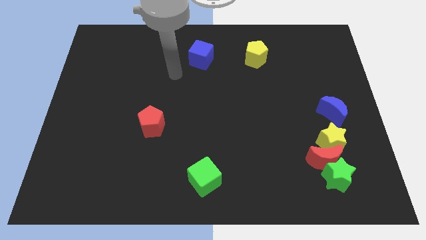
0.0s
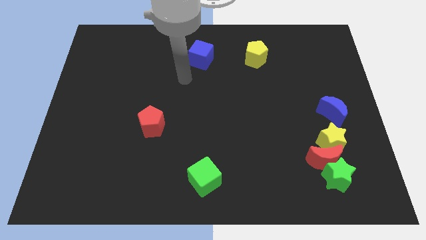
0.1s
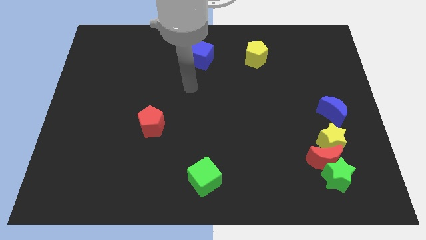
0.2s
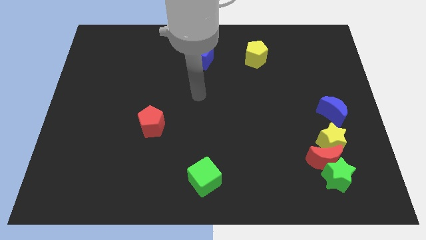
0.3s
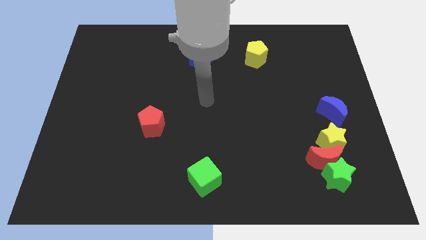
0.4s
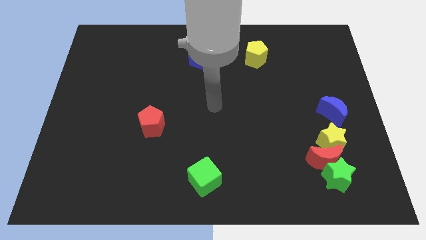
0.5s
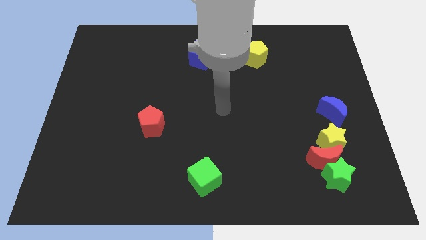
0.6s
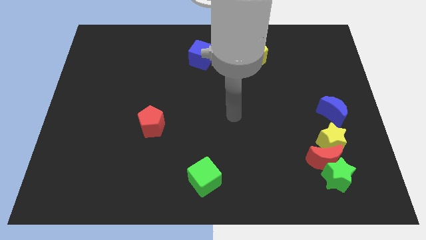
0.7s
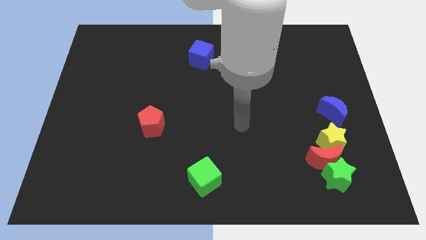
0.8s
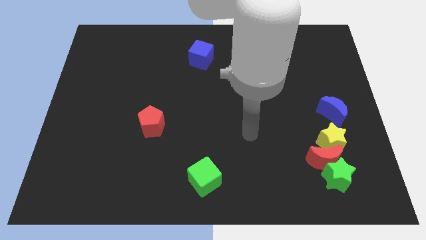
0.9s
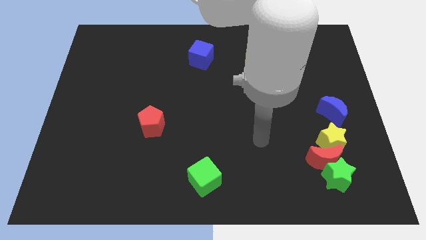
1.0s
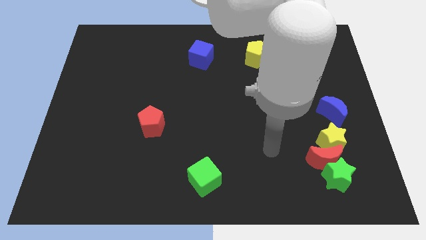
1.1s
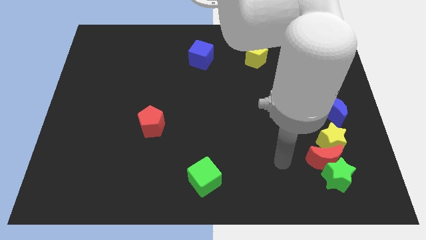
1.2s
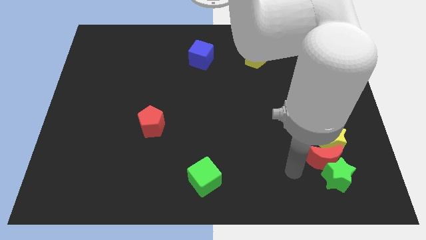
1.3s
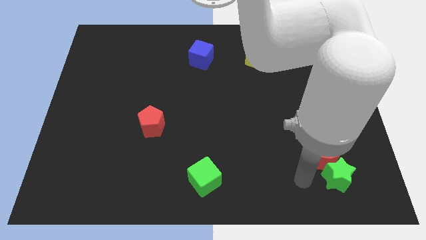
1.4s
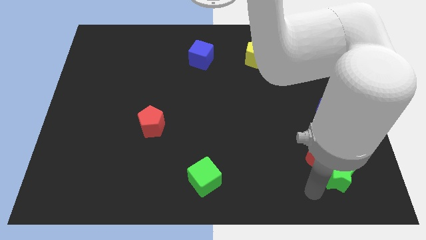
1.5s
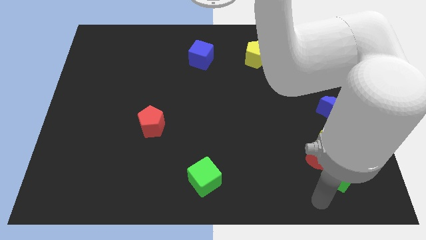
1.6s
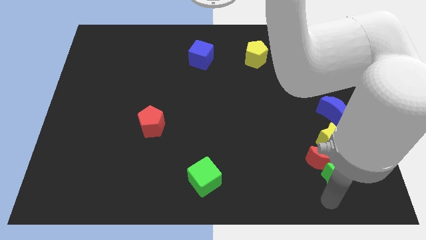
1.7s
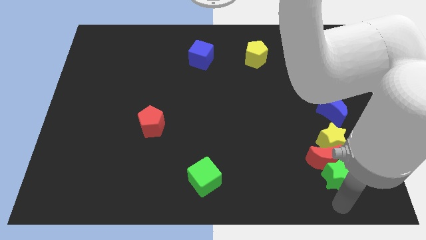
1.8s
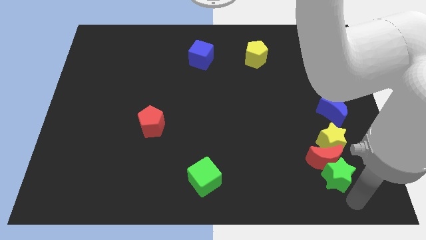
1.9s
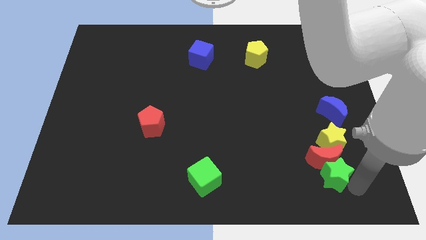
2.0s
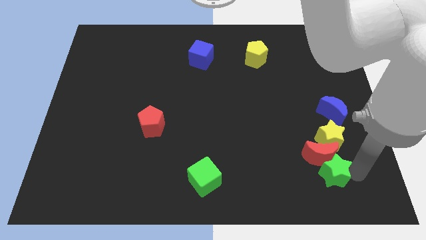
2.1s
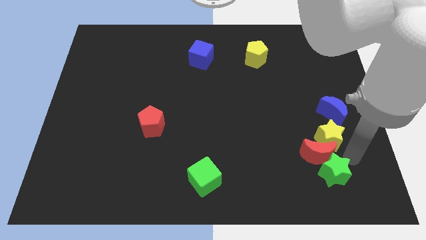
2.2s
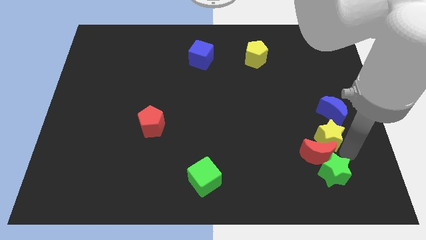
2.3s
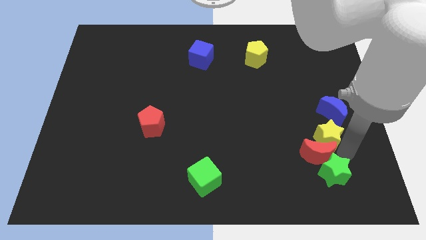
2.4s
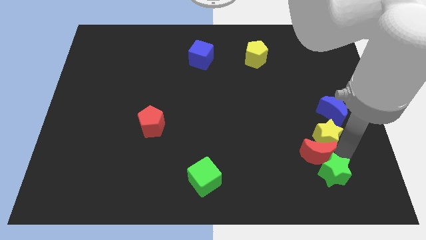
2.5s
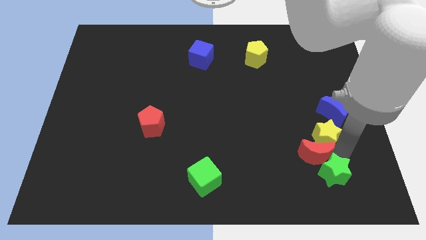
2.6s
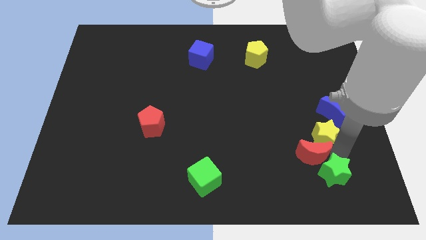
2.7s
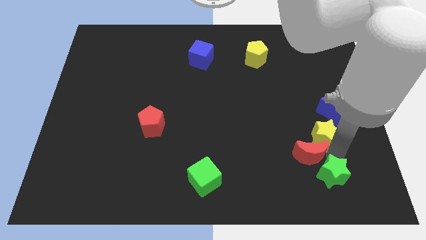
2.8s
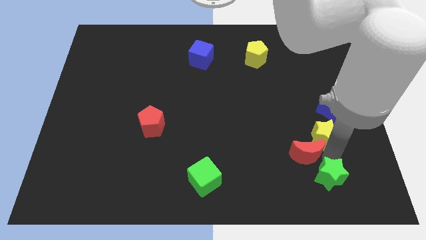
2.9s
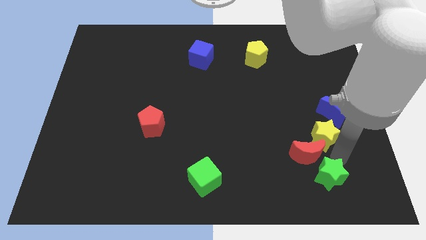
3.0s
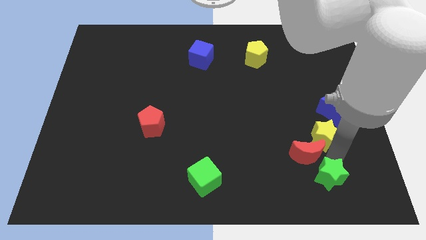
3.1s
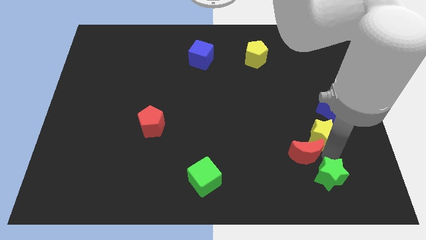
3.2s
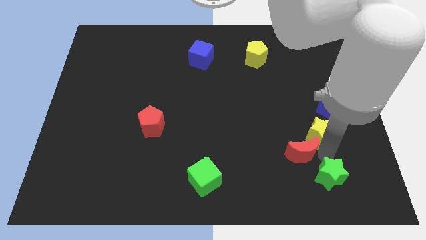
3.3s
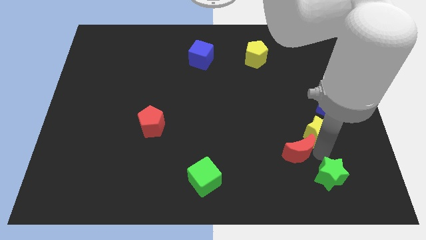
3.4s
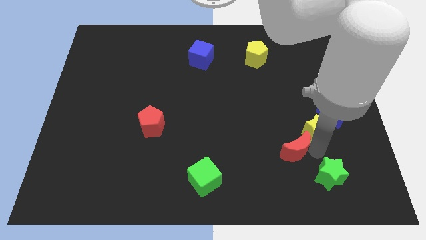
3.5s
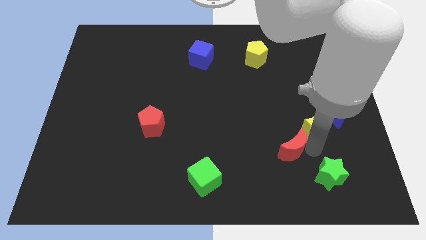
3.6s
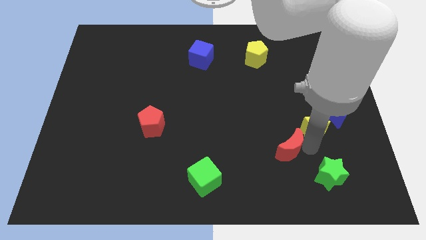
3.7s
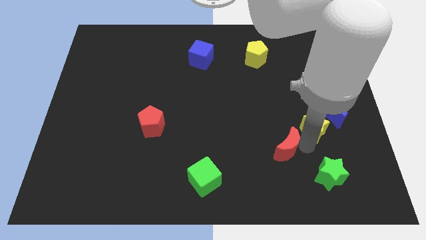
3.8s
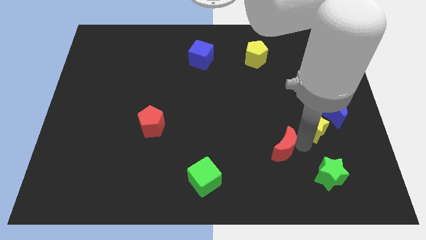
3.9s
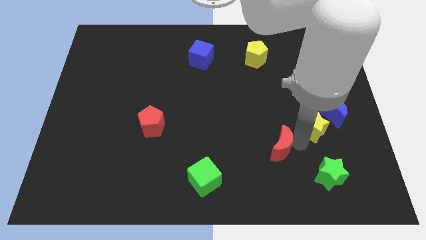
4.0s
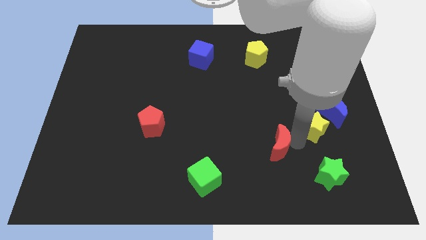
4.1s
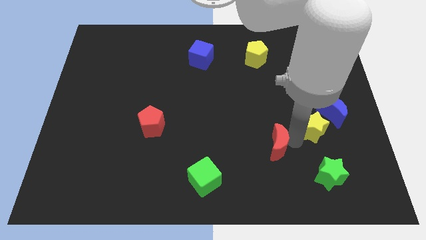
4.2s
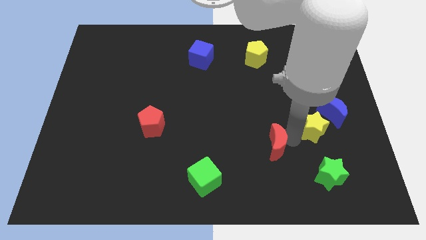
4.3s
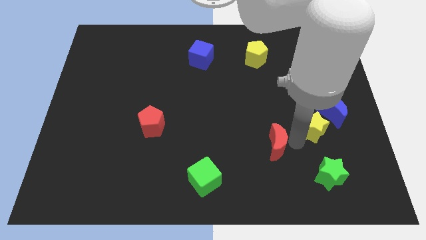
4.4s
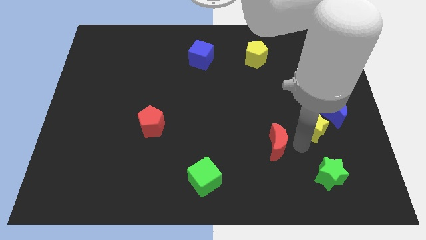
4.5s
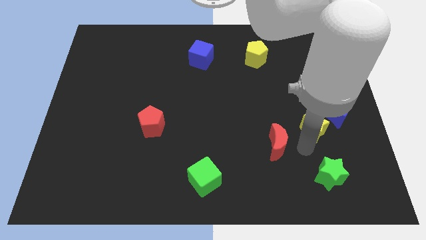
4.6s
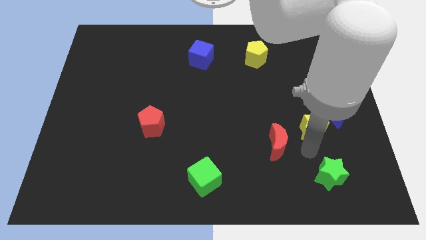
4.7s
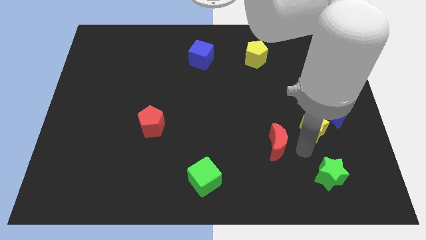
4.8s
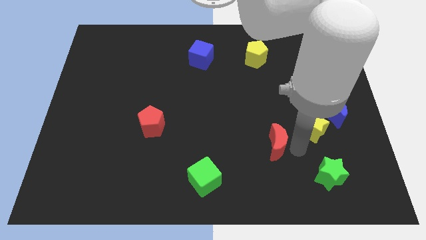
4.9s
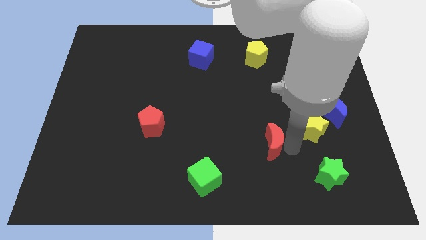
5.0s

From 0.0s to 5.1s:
pull the red moon apart from the green star and yellow star

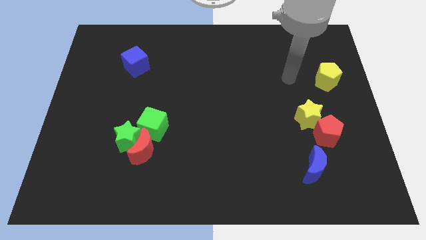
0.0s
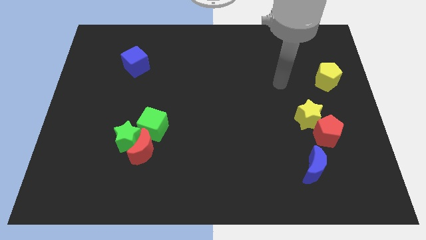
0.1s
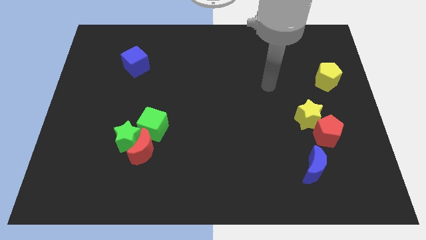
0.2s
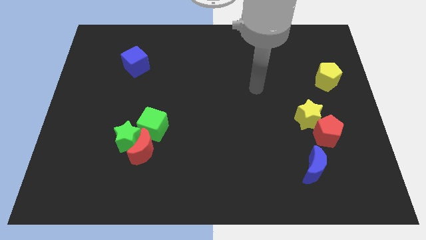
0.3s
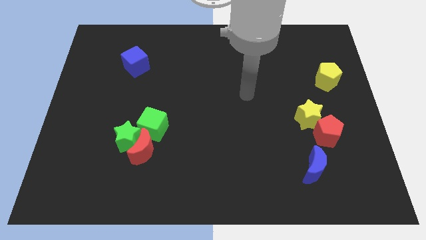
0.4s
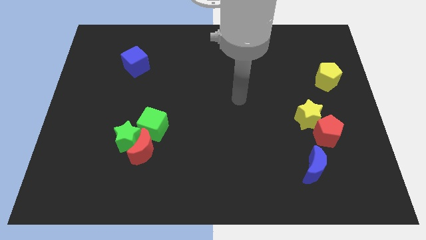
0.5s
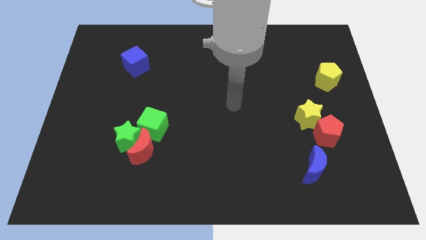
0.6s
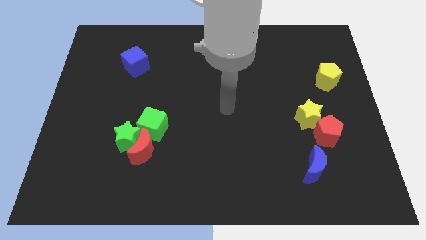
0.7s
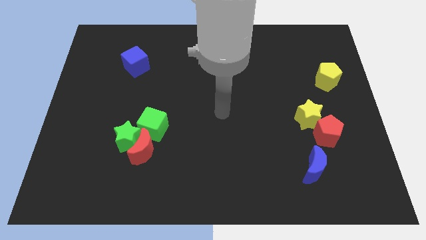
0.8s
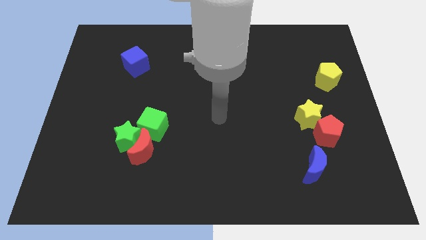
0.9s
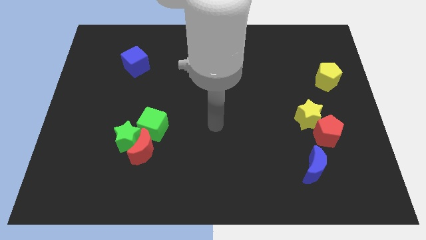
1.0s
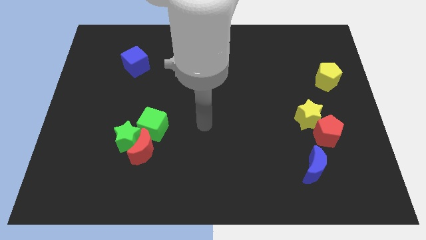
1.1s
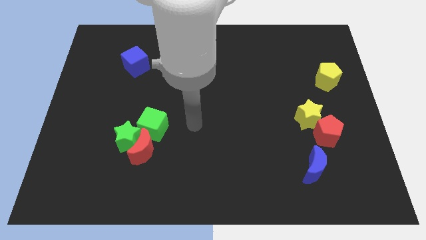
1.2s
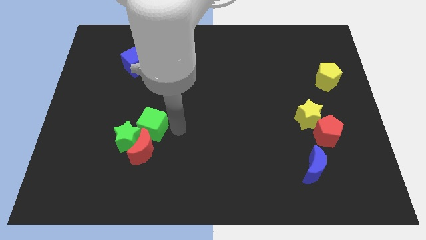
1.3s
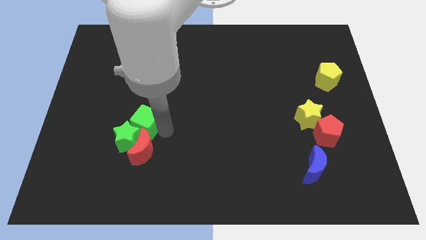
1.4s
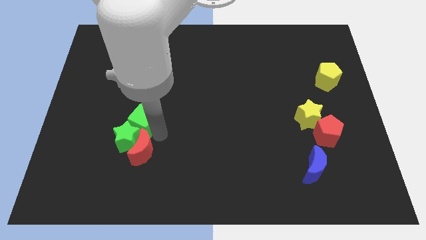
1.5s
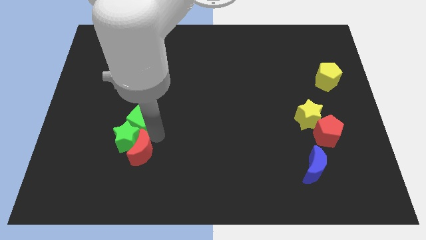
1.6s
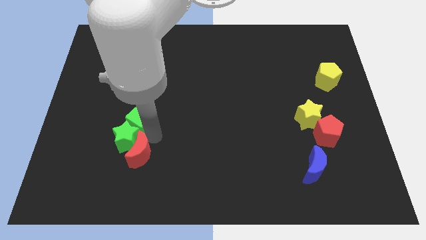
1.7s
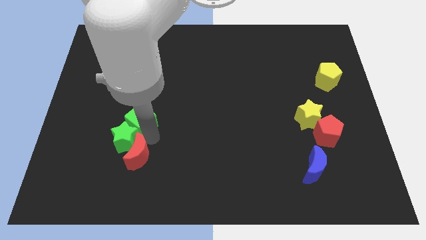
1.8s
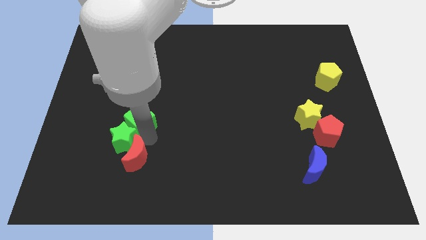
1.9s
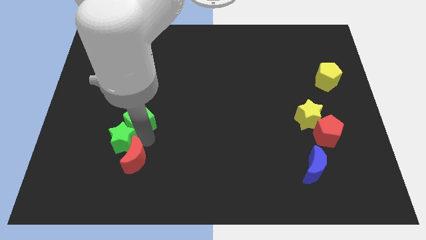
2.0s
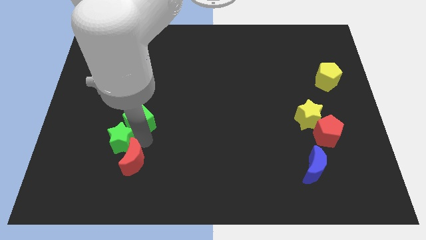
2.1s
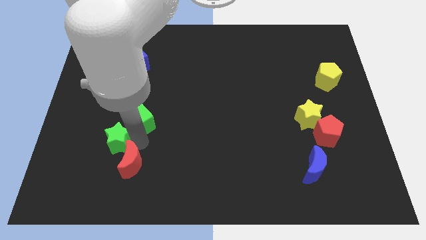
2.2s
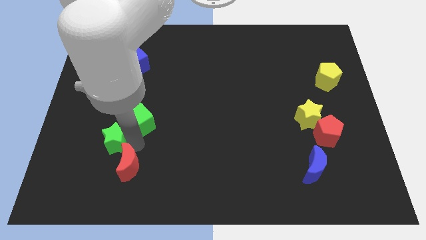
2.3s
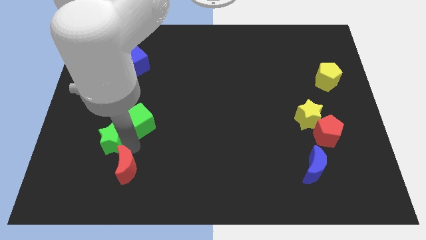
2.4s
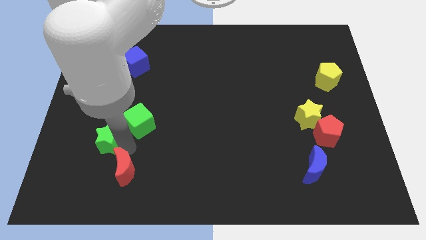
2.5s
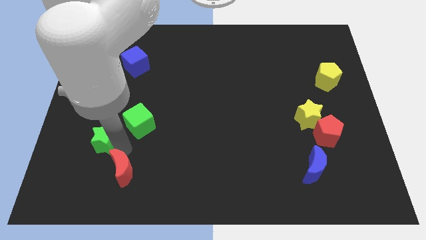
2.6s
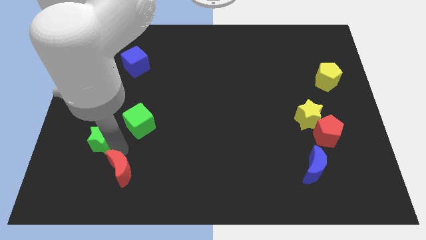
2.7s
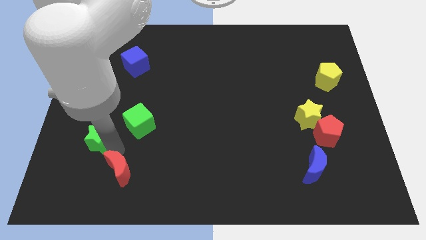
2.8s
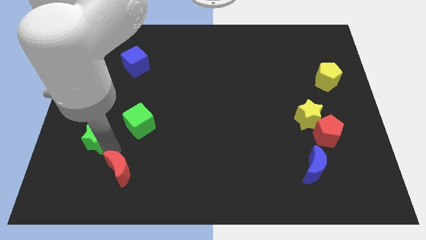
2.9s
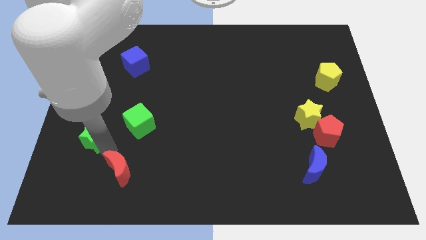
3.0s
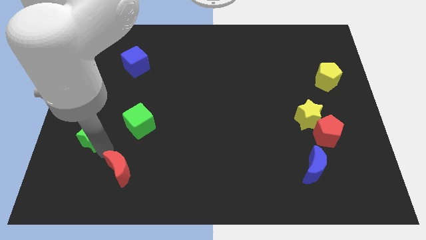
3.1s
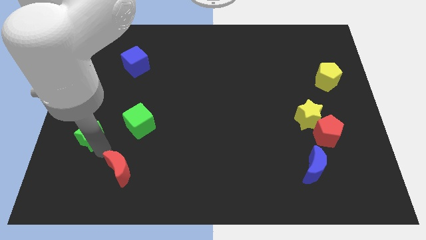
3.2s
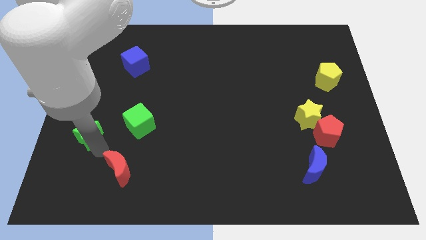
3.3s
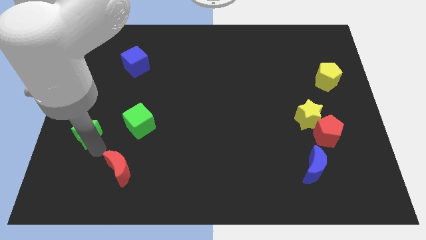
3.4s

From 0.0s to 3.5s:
move the green star away from the red moon and green cube

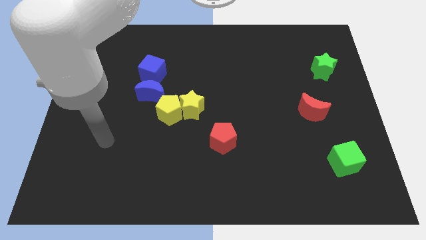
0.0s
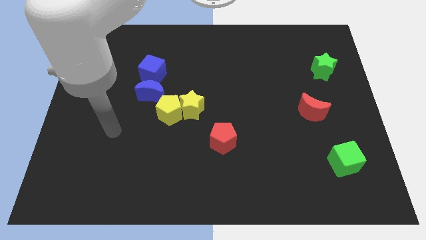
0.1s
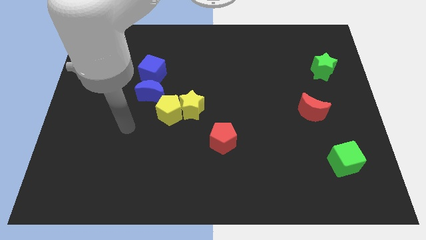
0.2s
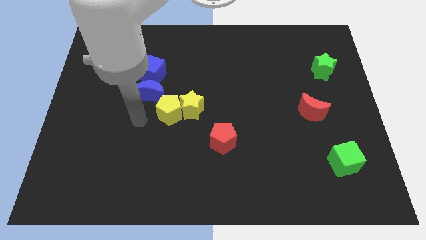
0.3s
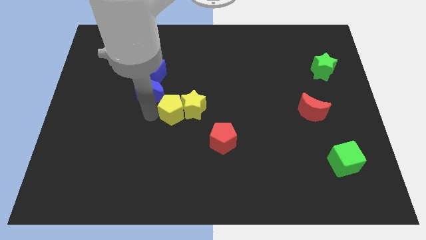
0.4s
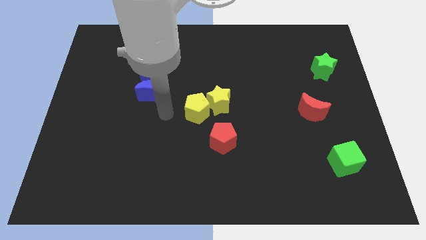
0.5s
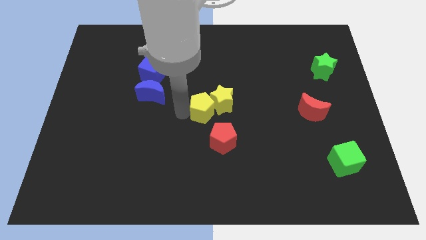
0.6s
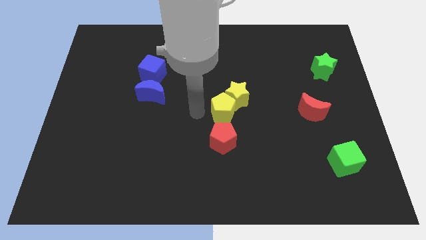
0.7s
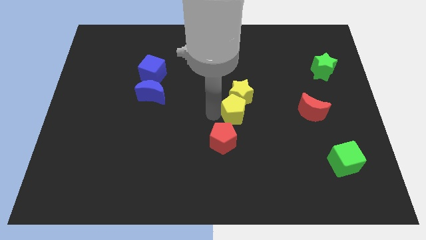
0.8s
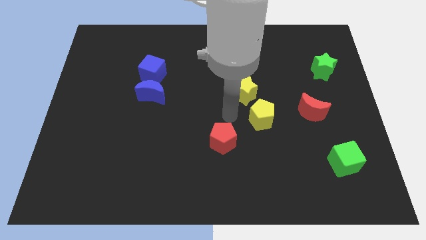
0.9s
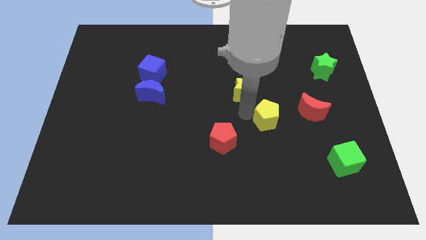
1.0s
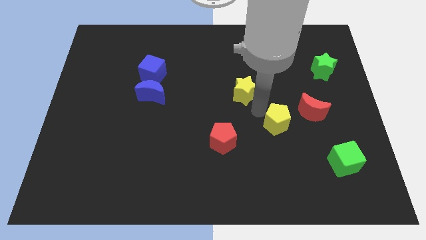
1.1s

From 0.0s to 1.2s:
separate the yellow star from the yellow pentagon
